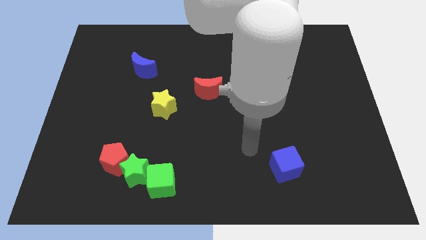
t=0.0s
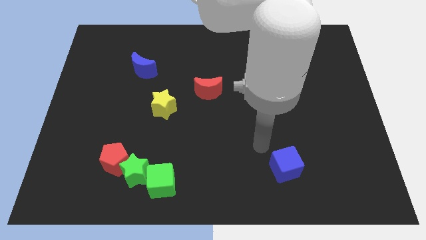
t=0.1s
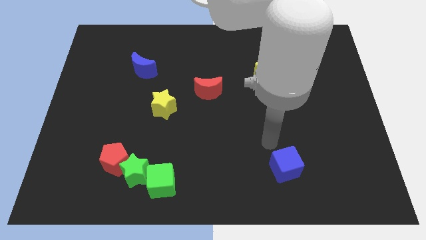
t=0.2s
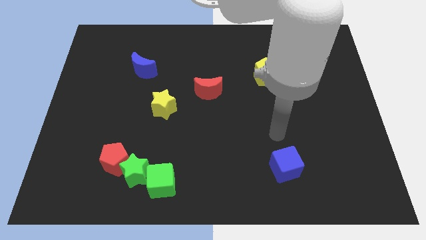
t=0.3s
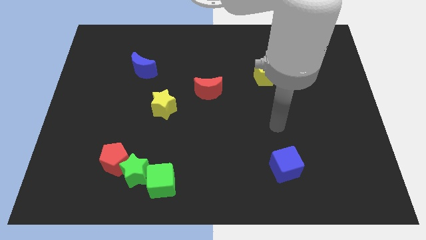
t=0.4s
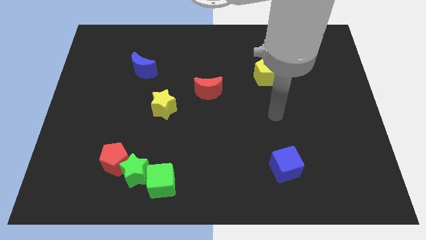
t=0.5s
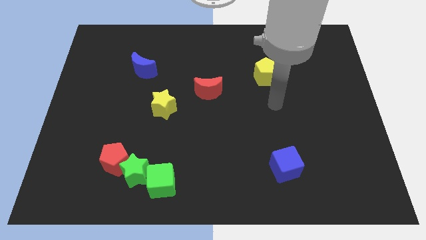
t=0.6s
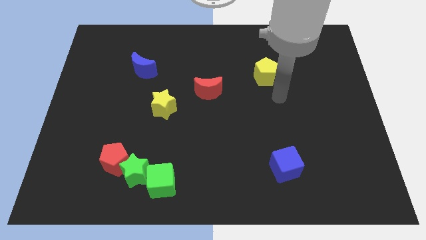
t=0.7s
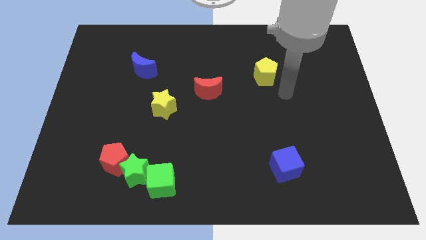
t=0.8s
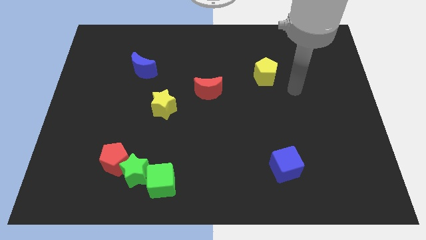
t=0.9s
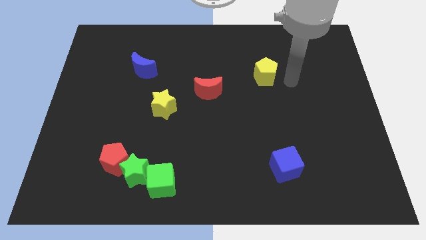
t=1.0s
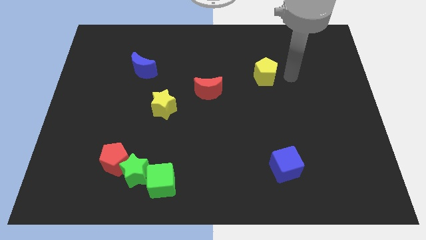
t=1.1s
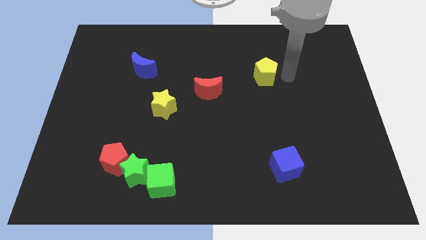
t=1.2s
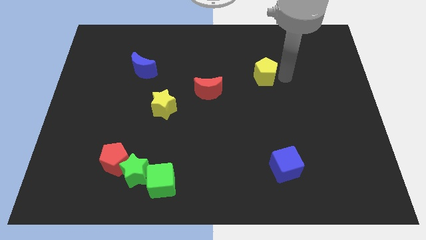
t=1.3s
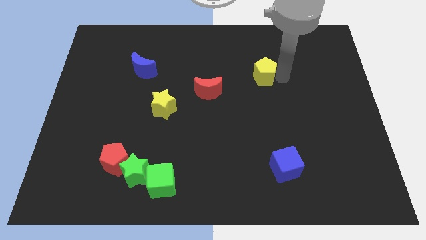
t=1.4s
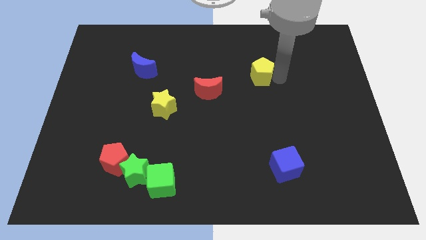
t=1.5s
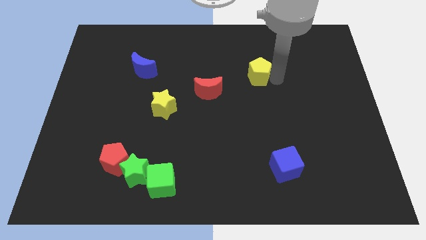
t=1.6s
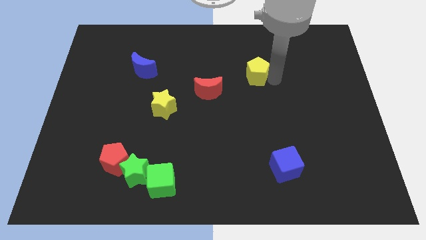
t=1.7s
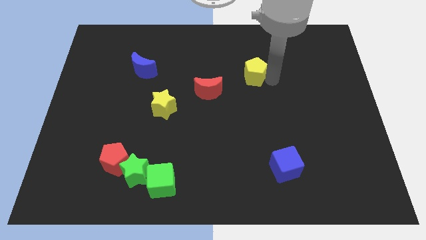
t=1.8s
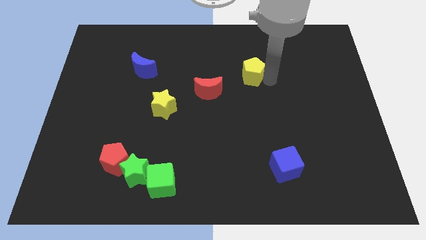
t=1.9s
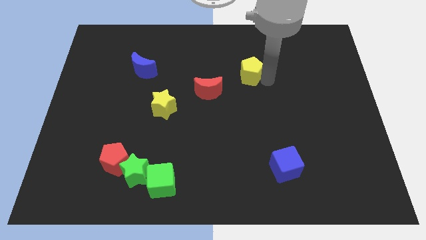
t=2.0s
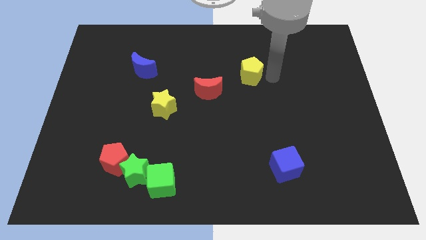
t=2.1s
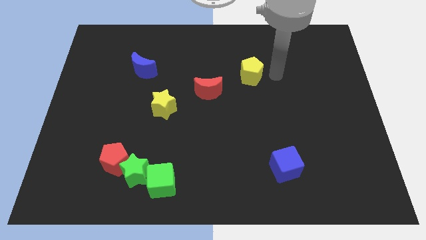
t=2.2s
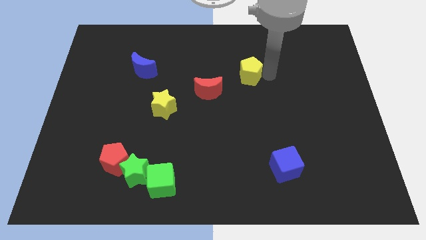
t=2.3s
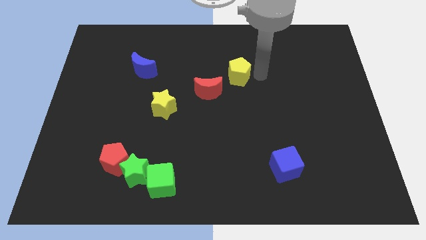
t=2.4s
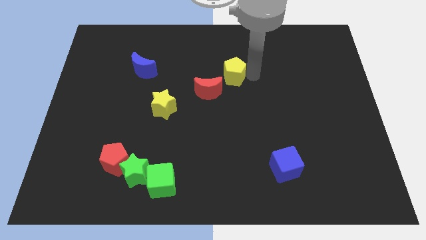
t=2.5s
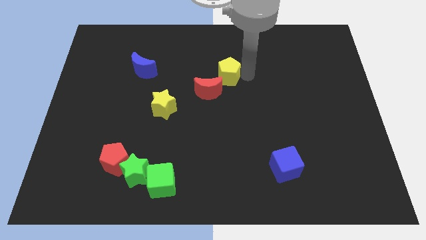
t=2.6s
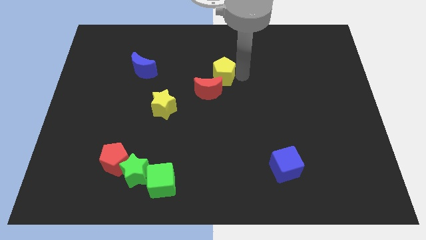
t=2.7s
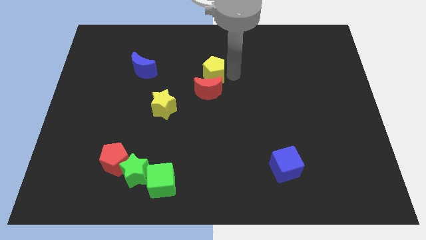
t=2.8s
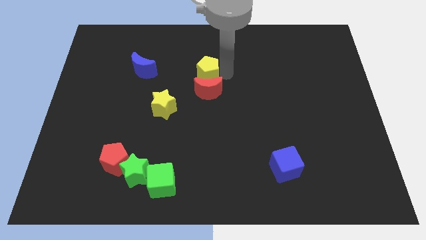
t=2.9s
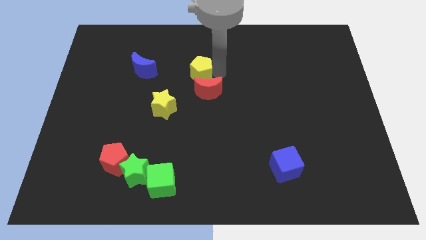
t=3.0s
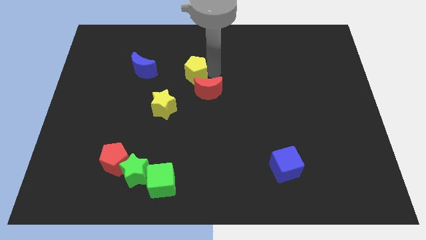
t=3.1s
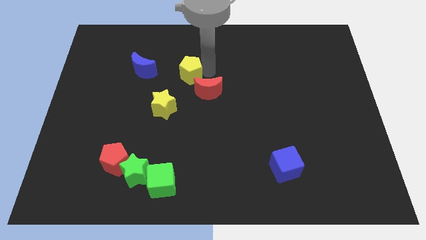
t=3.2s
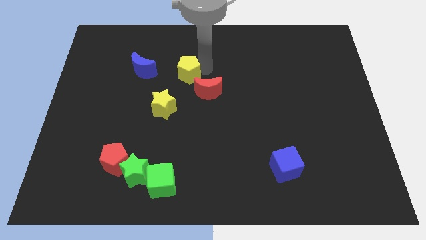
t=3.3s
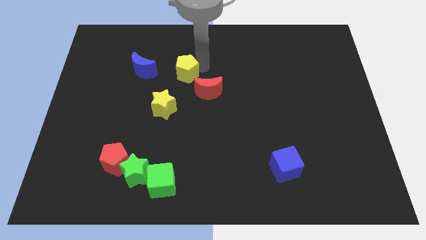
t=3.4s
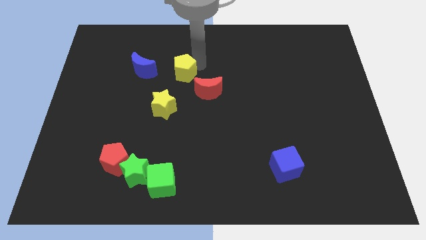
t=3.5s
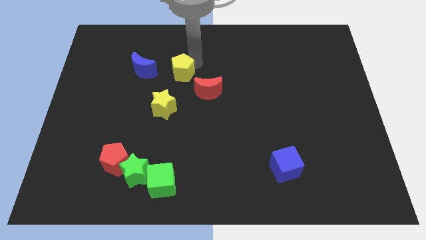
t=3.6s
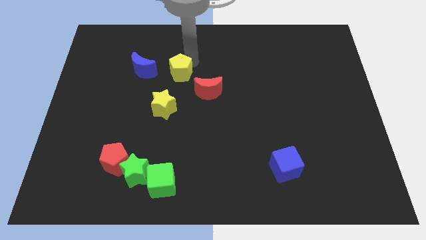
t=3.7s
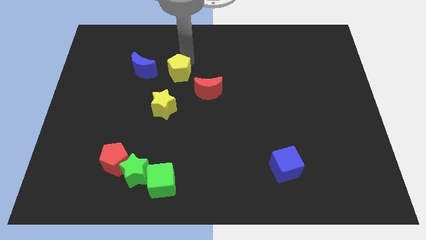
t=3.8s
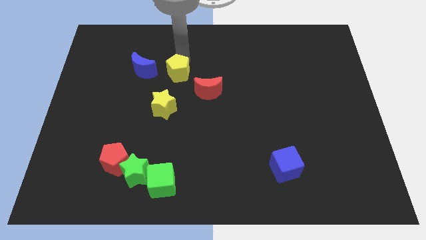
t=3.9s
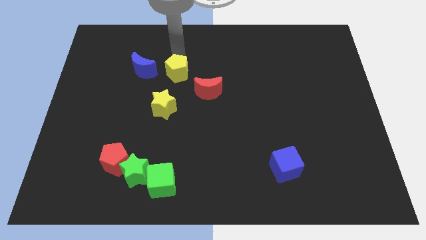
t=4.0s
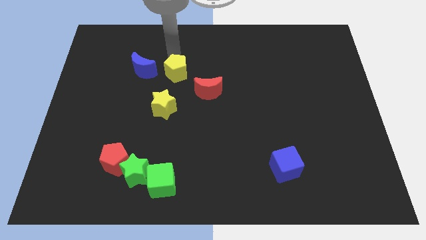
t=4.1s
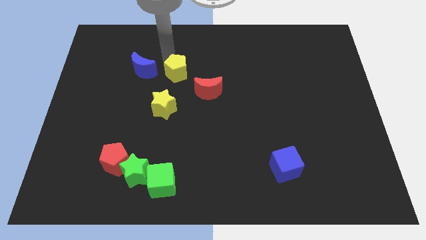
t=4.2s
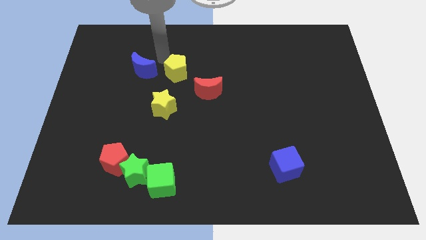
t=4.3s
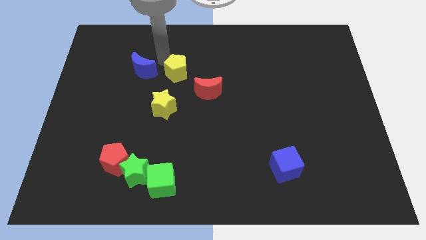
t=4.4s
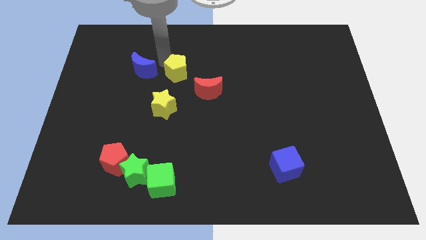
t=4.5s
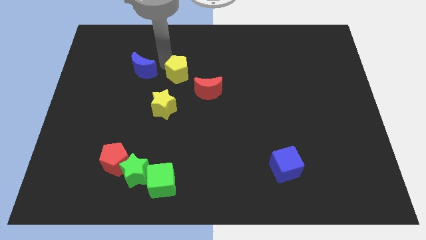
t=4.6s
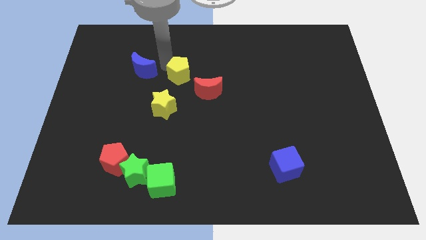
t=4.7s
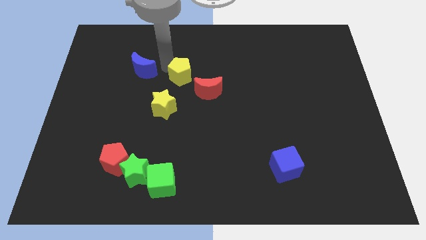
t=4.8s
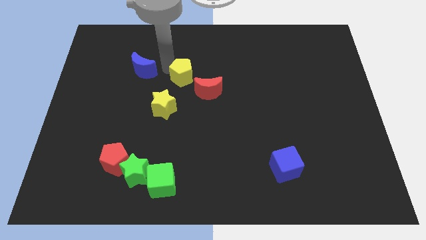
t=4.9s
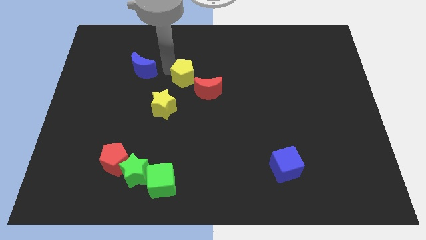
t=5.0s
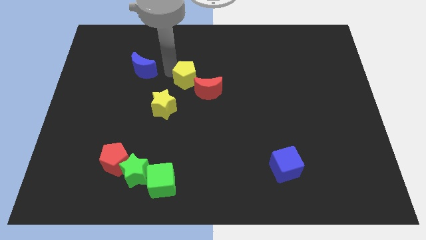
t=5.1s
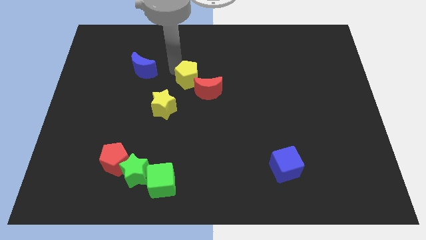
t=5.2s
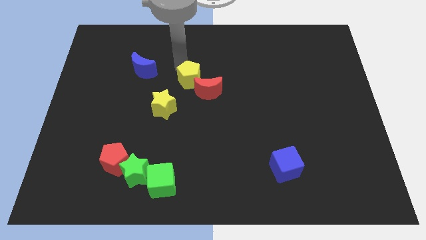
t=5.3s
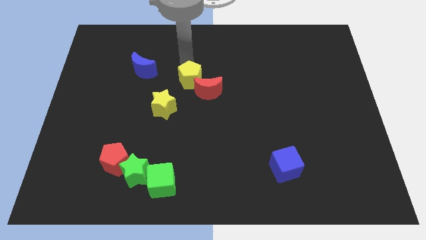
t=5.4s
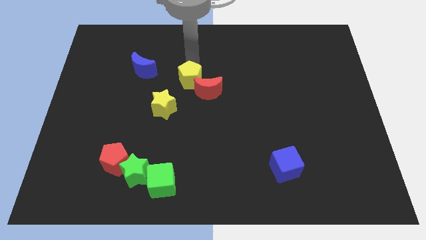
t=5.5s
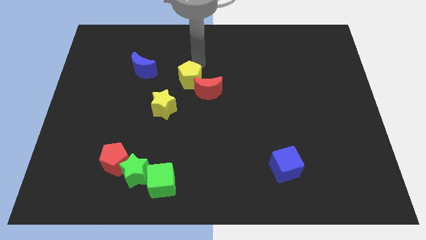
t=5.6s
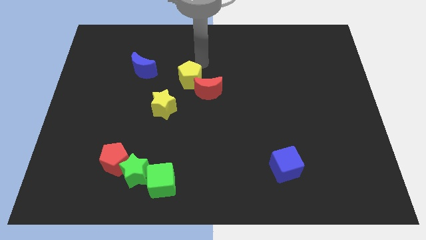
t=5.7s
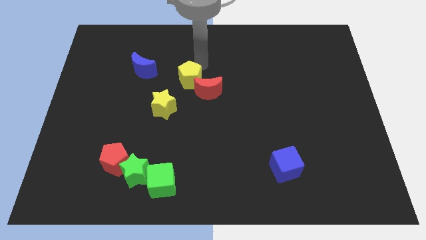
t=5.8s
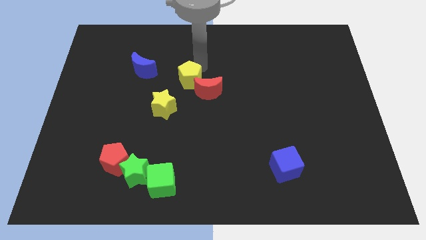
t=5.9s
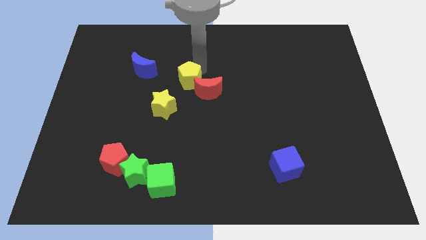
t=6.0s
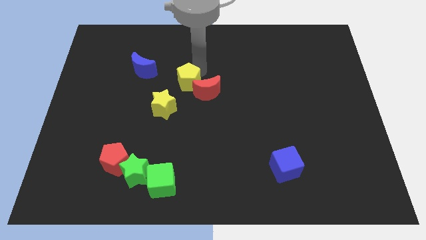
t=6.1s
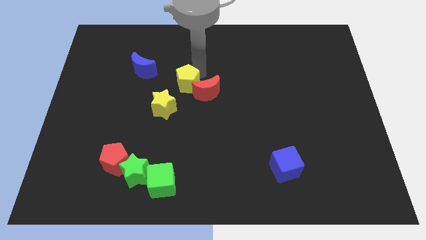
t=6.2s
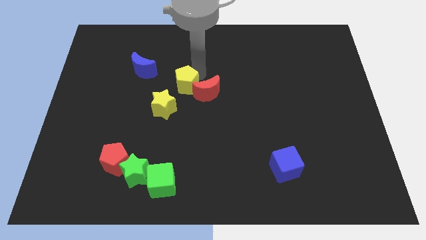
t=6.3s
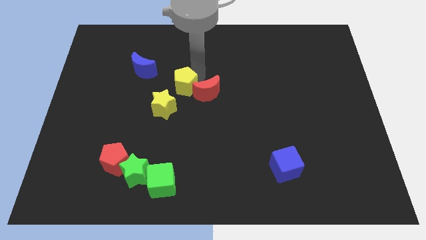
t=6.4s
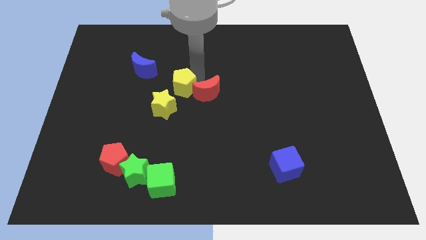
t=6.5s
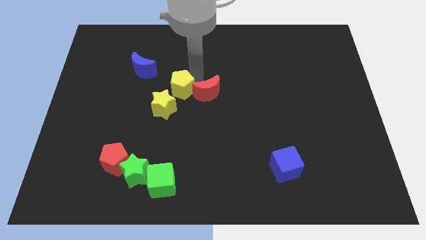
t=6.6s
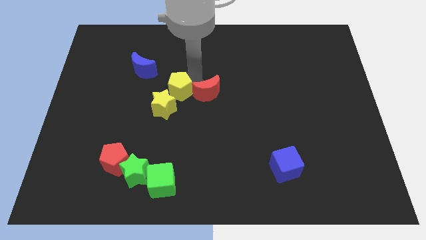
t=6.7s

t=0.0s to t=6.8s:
slide the yellow pentagon next to the yellow star

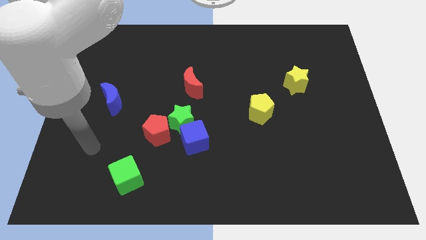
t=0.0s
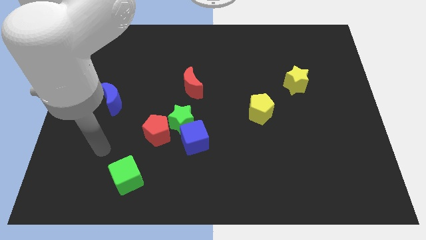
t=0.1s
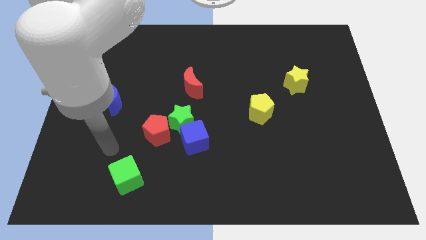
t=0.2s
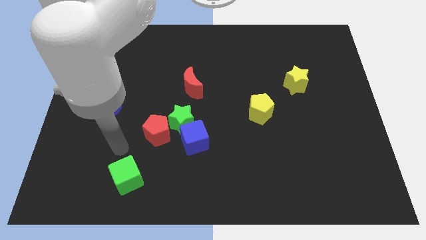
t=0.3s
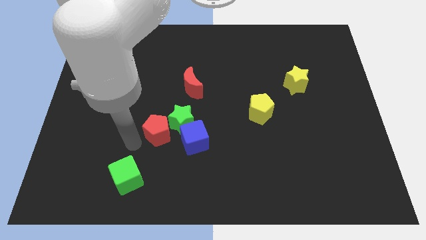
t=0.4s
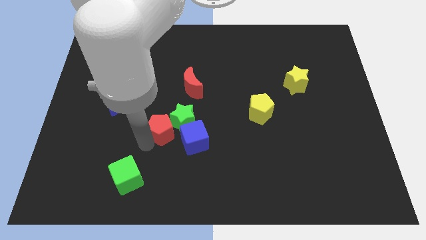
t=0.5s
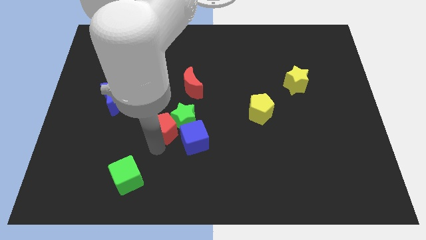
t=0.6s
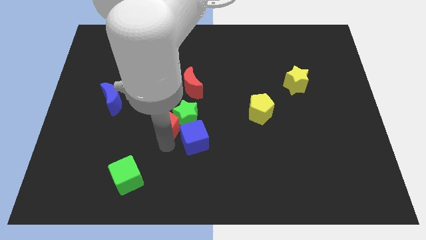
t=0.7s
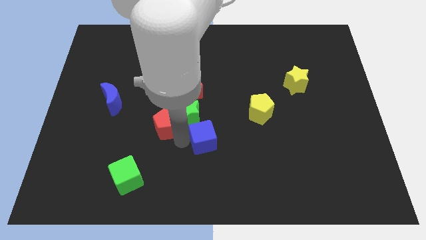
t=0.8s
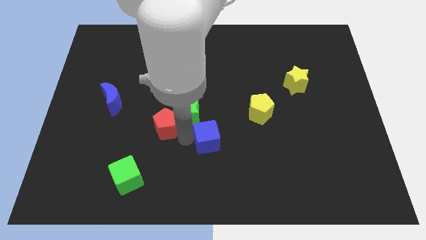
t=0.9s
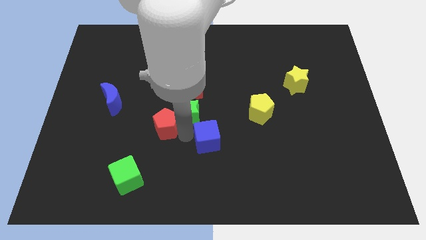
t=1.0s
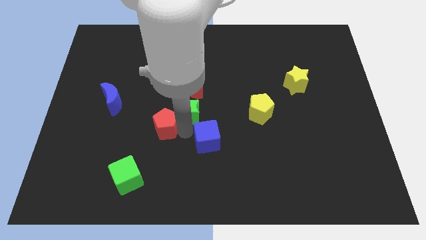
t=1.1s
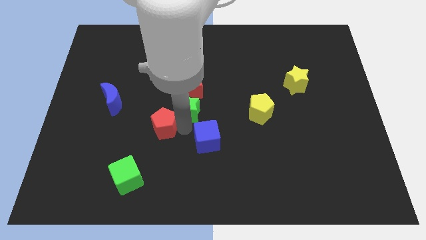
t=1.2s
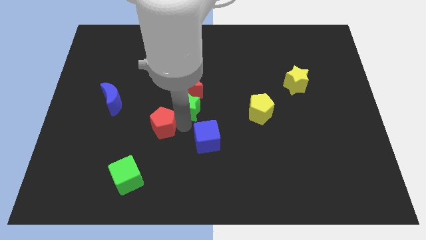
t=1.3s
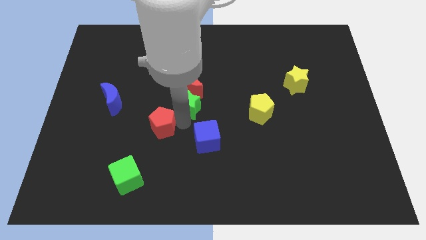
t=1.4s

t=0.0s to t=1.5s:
slide the green star close to the red moon
